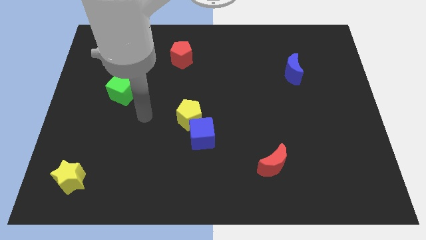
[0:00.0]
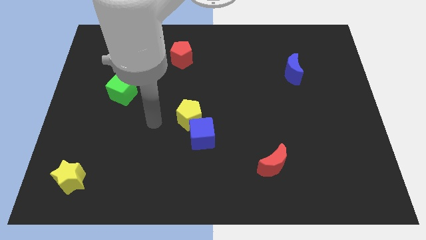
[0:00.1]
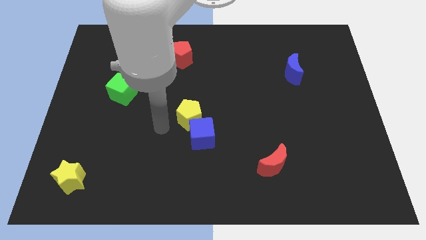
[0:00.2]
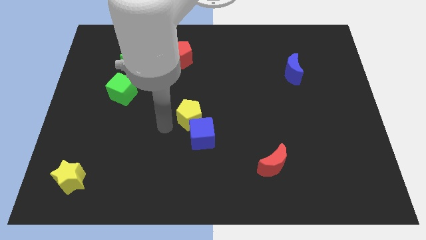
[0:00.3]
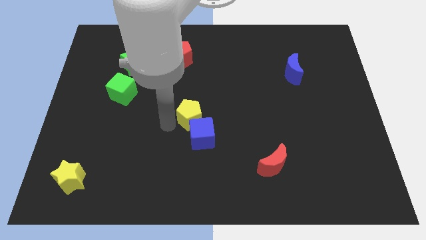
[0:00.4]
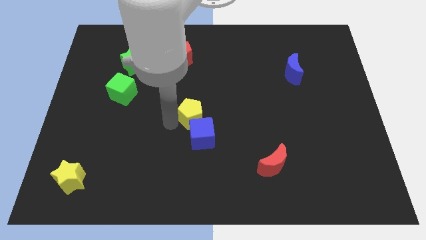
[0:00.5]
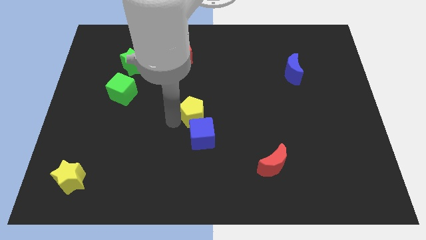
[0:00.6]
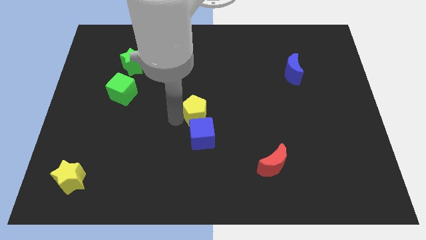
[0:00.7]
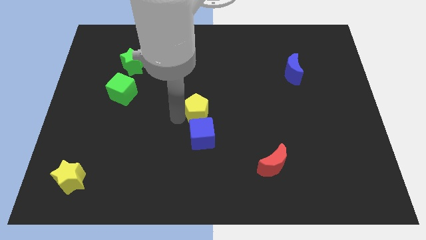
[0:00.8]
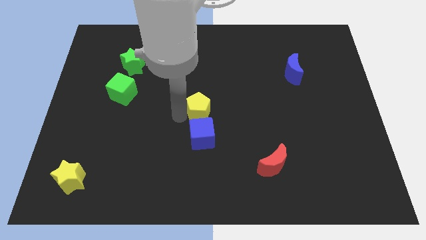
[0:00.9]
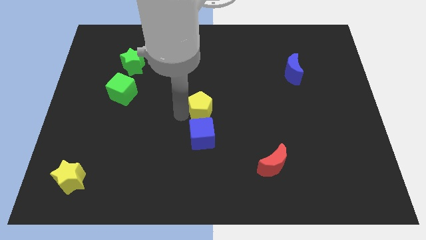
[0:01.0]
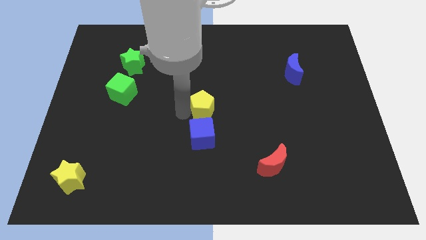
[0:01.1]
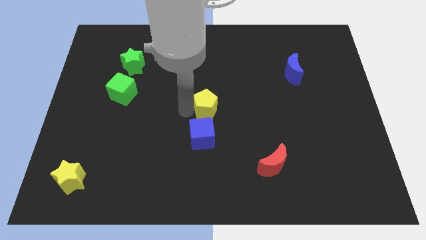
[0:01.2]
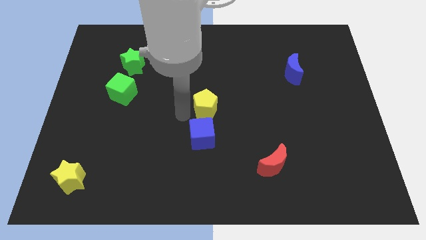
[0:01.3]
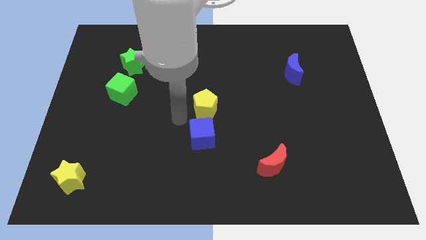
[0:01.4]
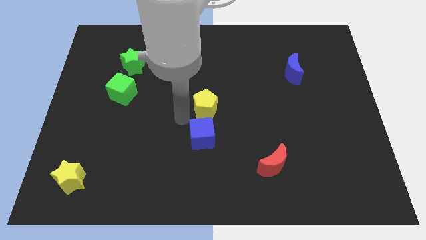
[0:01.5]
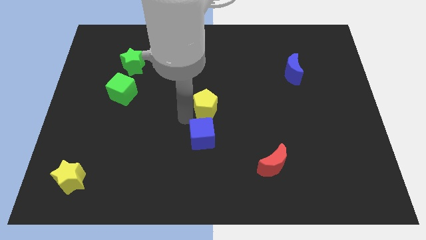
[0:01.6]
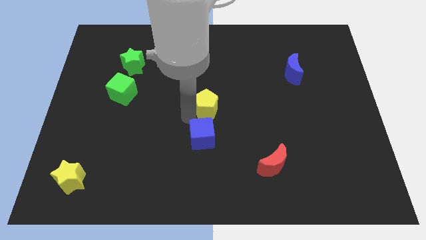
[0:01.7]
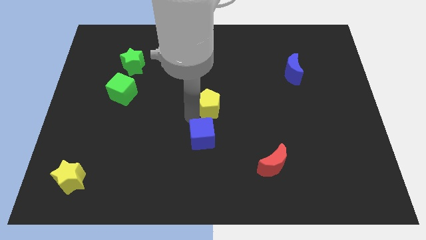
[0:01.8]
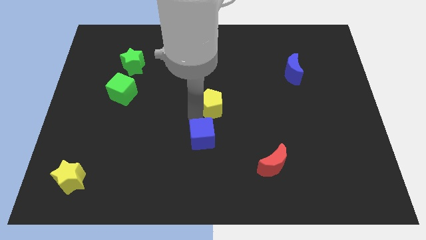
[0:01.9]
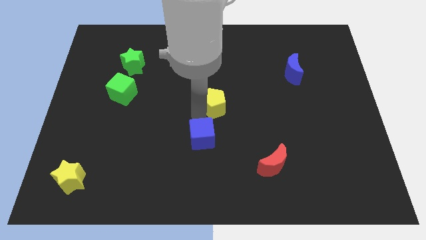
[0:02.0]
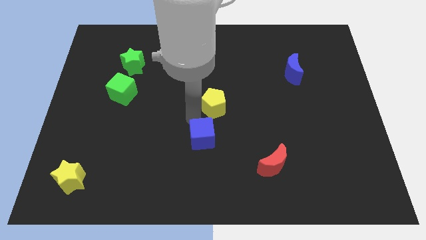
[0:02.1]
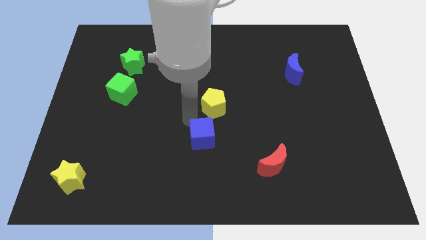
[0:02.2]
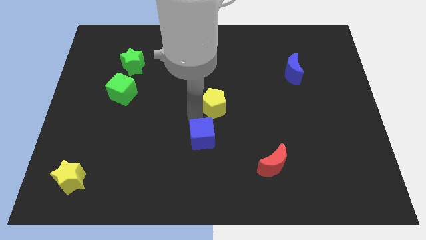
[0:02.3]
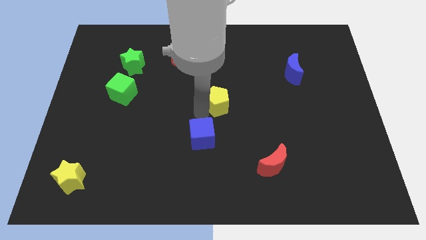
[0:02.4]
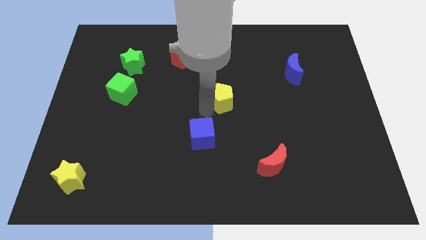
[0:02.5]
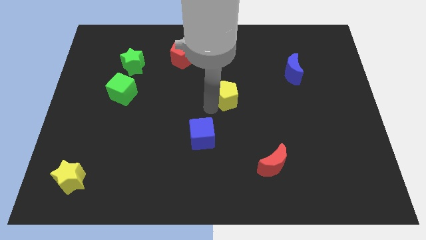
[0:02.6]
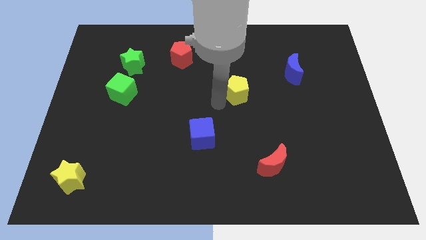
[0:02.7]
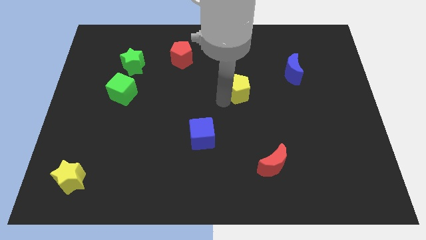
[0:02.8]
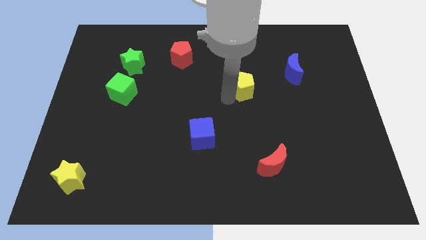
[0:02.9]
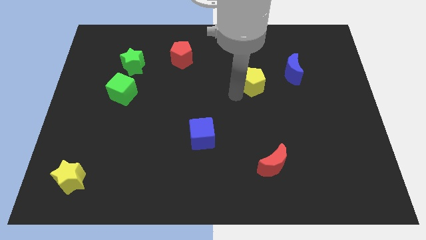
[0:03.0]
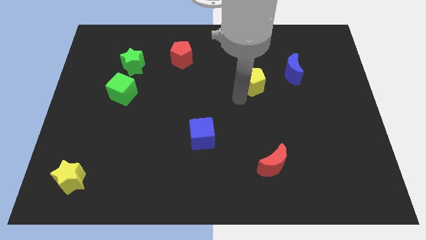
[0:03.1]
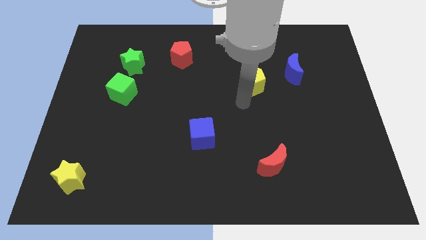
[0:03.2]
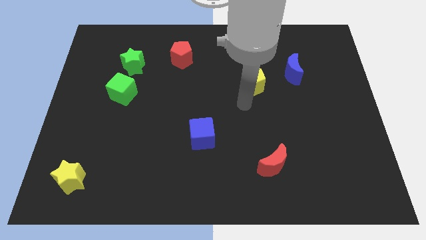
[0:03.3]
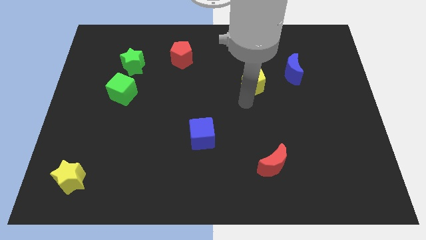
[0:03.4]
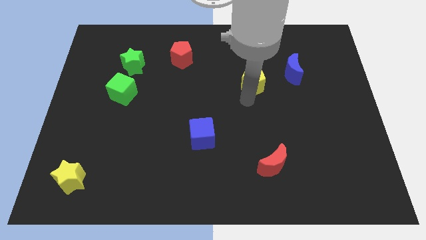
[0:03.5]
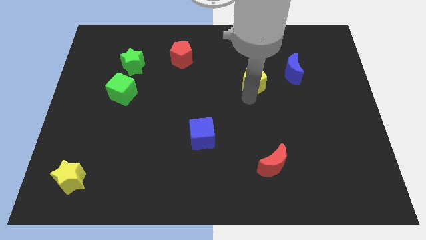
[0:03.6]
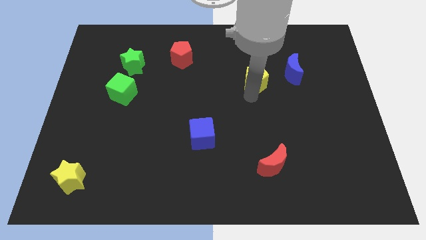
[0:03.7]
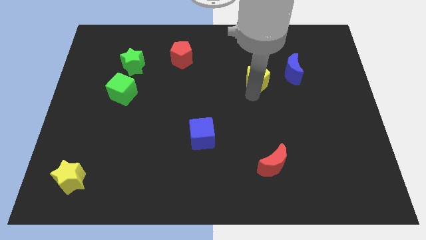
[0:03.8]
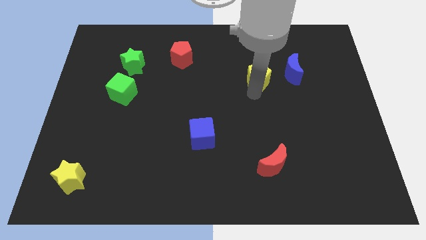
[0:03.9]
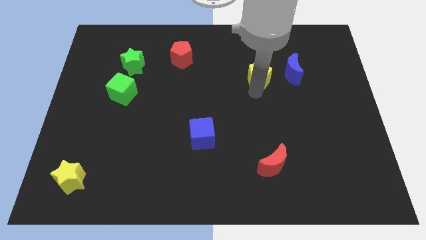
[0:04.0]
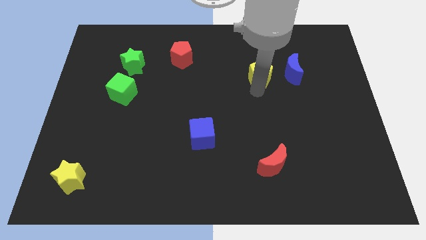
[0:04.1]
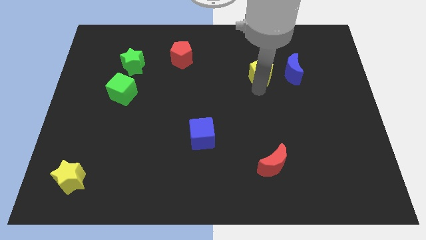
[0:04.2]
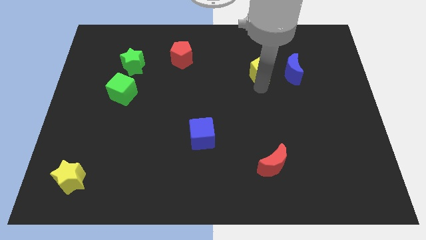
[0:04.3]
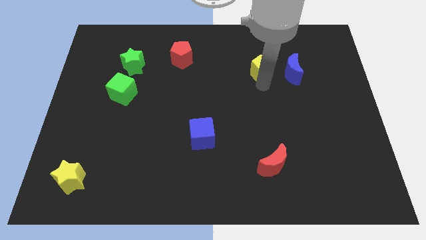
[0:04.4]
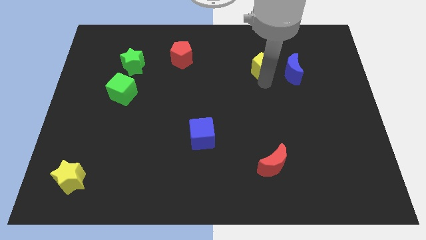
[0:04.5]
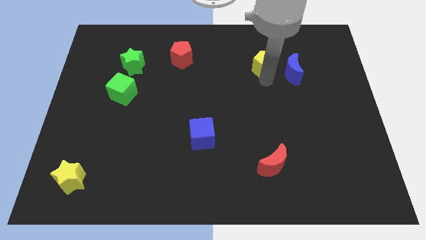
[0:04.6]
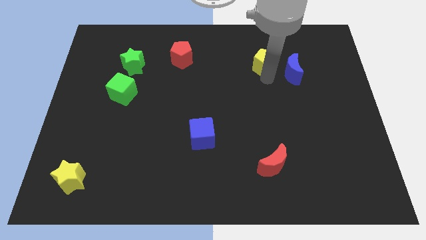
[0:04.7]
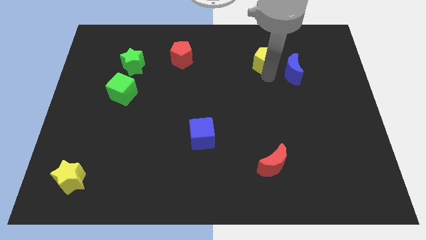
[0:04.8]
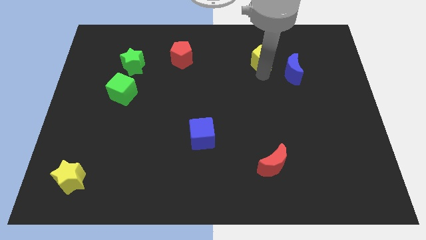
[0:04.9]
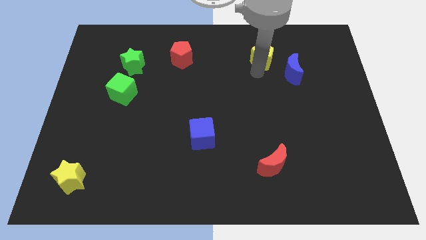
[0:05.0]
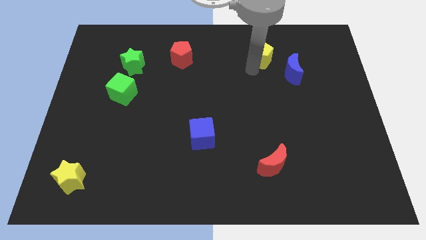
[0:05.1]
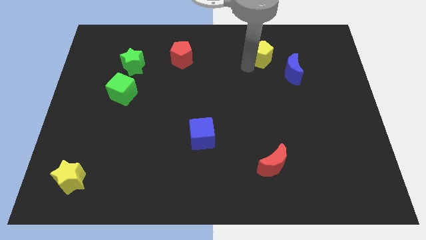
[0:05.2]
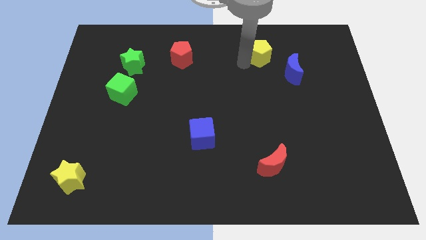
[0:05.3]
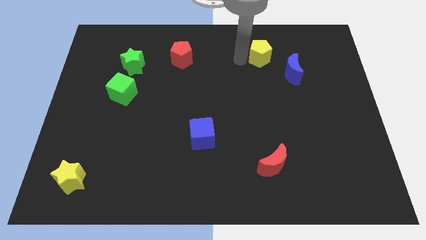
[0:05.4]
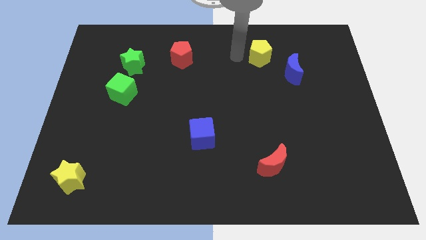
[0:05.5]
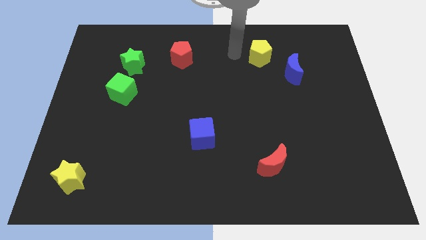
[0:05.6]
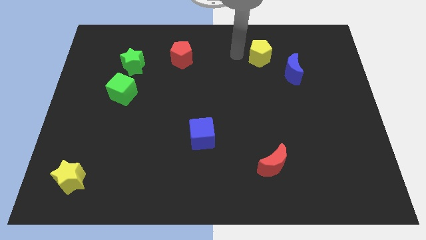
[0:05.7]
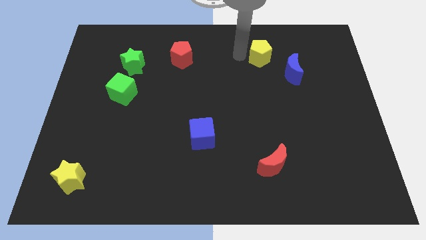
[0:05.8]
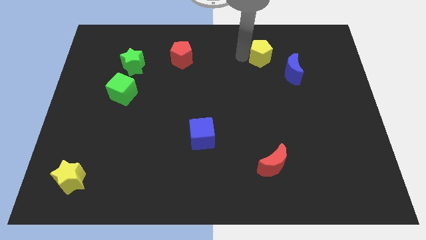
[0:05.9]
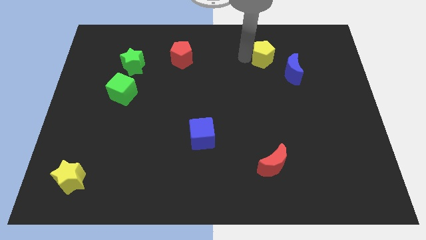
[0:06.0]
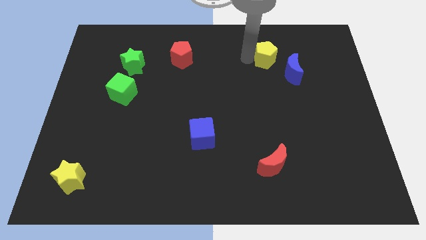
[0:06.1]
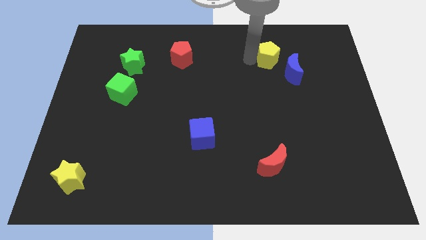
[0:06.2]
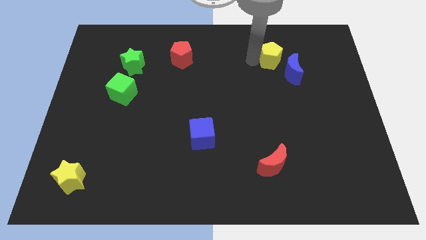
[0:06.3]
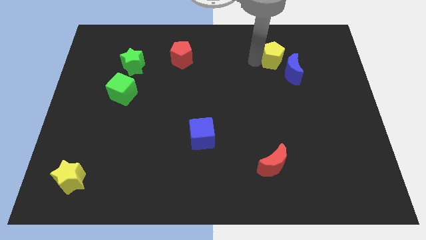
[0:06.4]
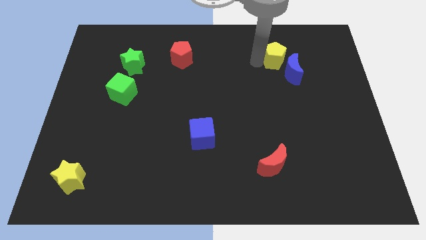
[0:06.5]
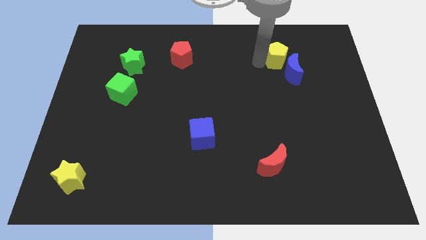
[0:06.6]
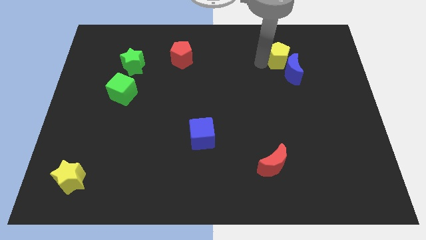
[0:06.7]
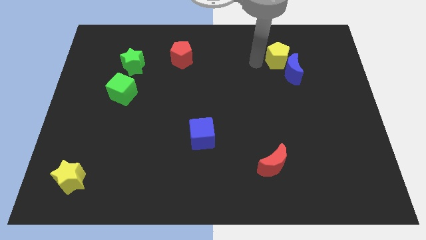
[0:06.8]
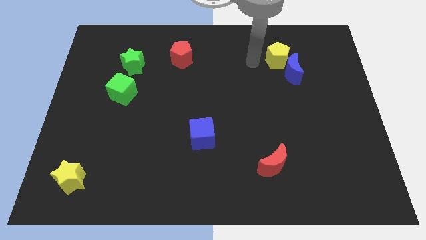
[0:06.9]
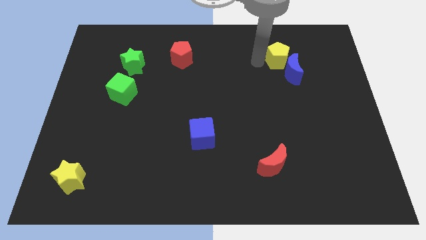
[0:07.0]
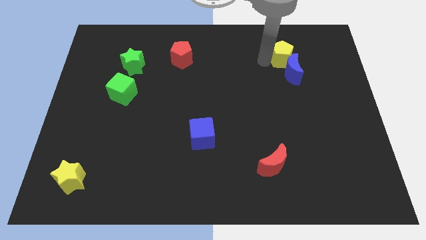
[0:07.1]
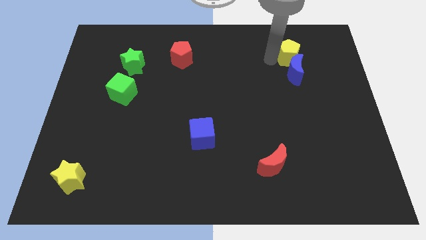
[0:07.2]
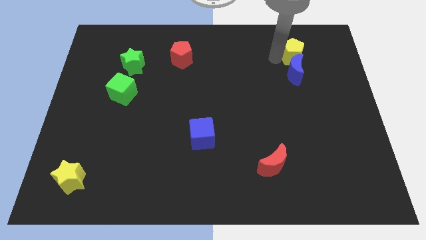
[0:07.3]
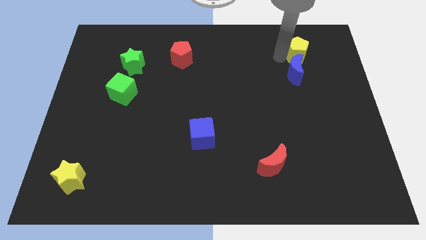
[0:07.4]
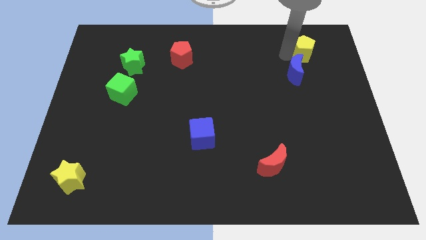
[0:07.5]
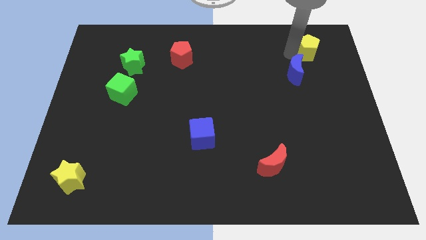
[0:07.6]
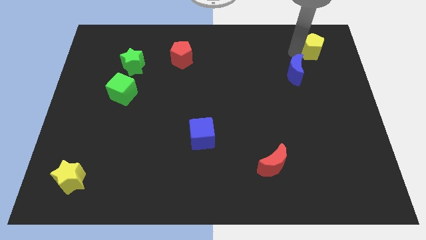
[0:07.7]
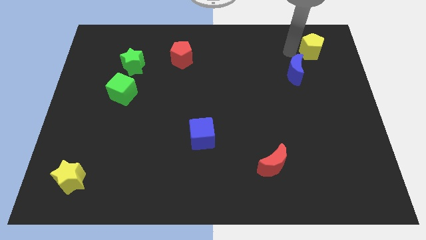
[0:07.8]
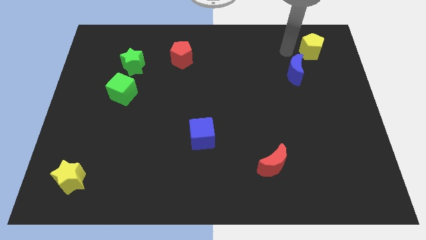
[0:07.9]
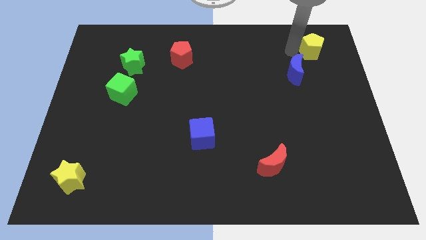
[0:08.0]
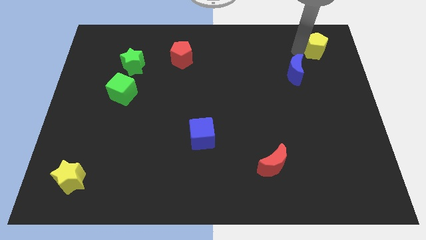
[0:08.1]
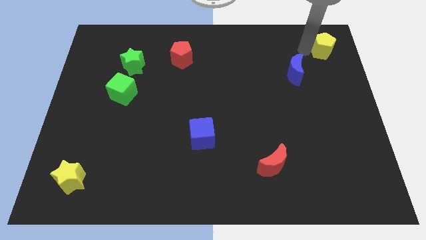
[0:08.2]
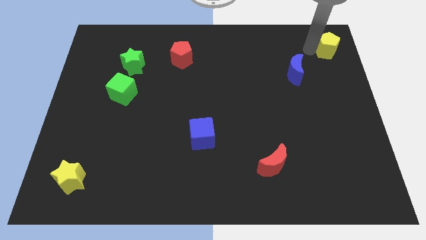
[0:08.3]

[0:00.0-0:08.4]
move the yellow pentagon to the top right
